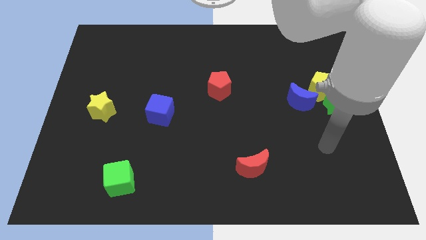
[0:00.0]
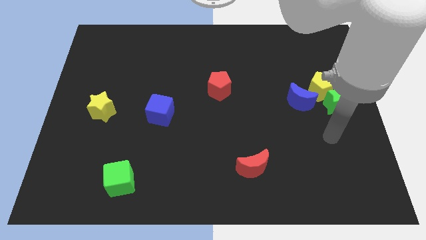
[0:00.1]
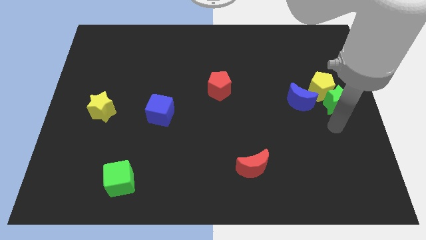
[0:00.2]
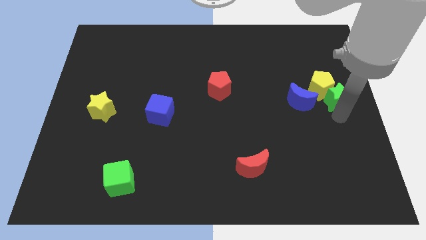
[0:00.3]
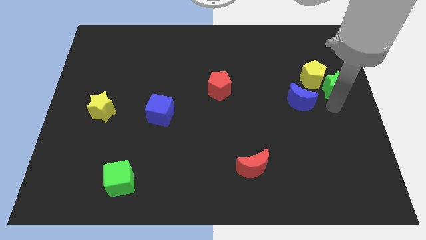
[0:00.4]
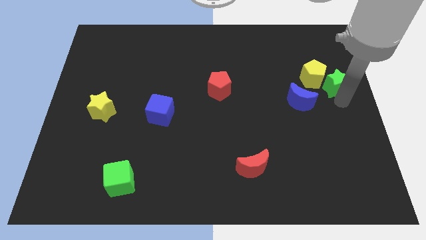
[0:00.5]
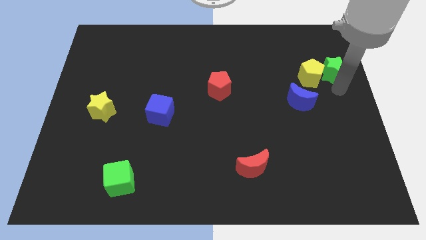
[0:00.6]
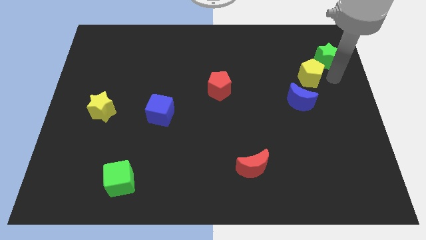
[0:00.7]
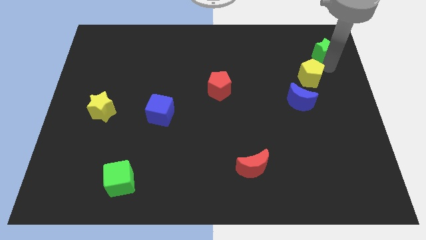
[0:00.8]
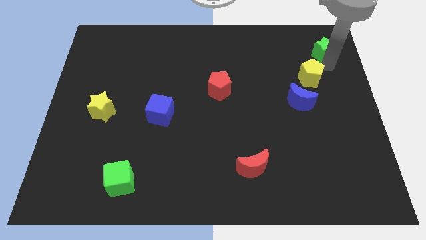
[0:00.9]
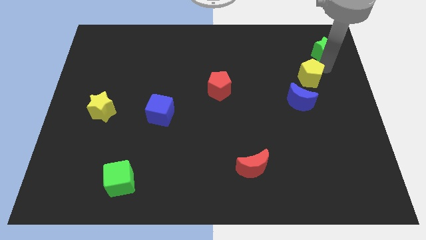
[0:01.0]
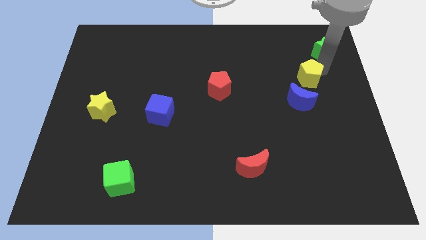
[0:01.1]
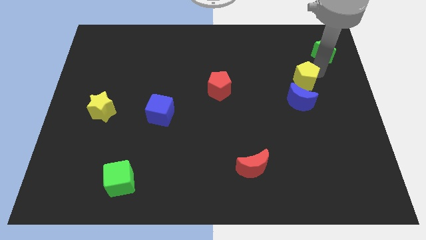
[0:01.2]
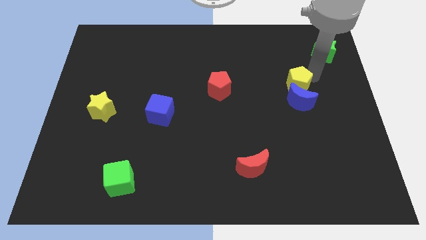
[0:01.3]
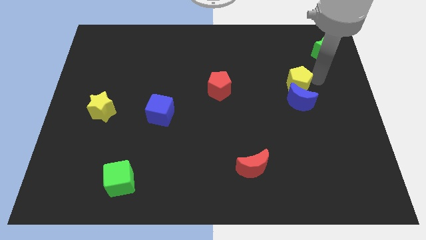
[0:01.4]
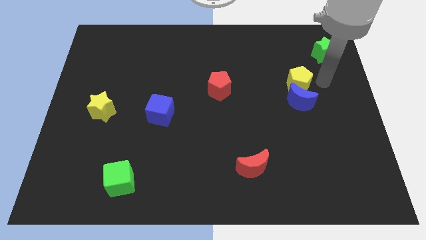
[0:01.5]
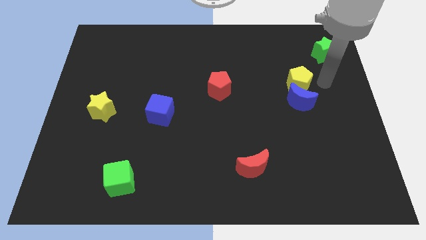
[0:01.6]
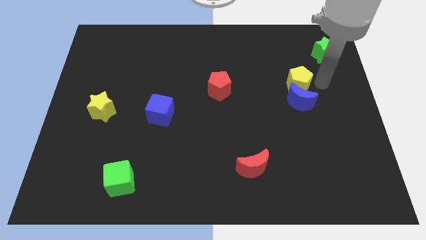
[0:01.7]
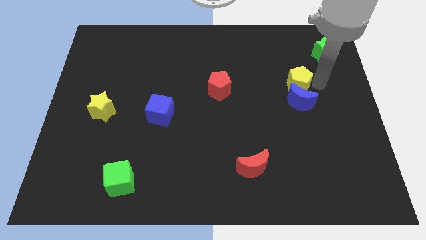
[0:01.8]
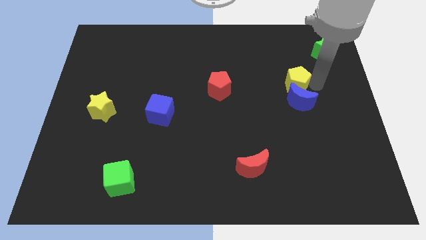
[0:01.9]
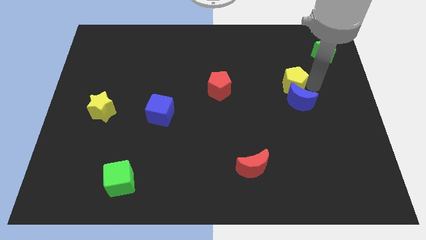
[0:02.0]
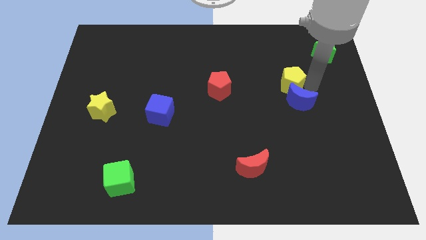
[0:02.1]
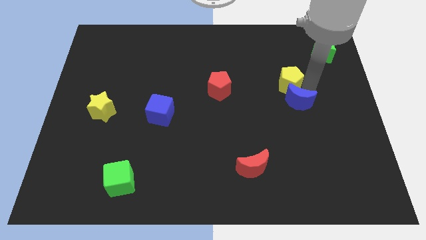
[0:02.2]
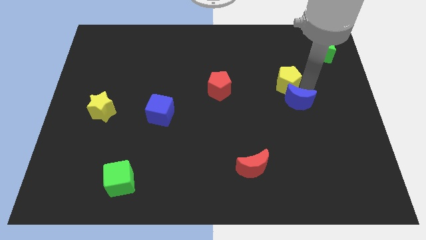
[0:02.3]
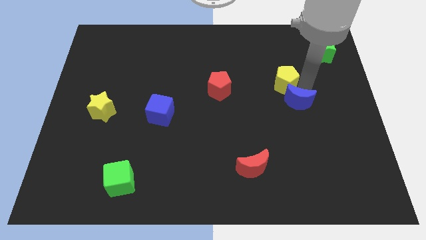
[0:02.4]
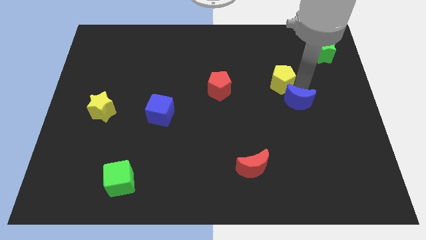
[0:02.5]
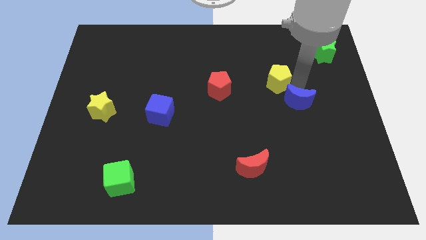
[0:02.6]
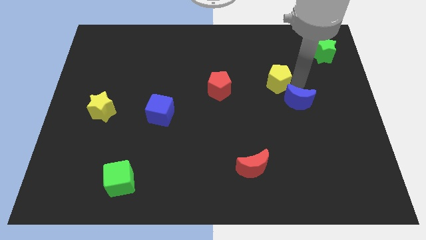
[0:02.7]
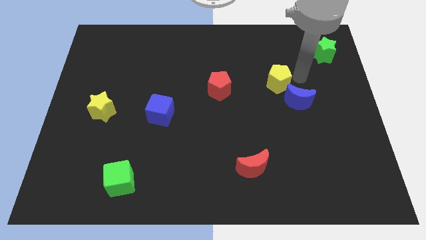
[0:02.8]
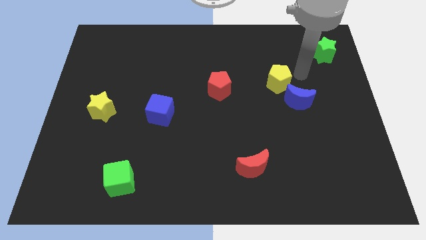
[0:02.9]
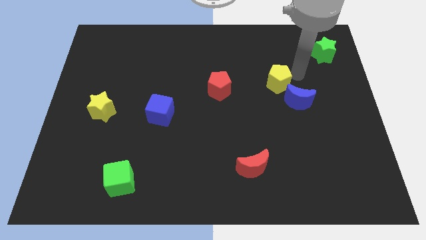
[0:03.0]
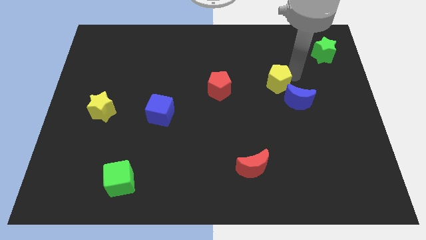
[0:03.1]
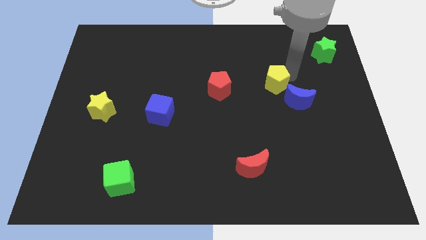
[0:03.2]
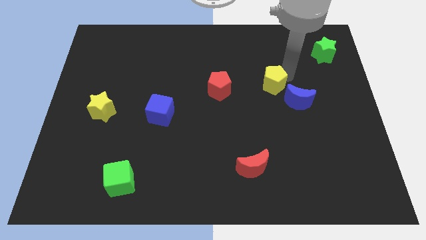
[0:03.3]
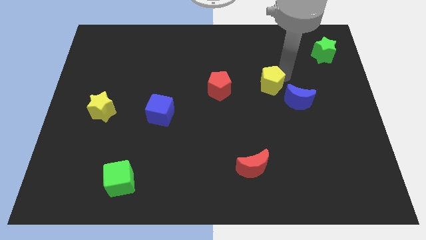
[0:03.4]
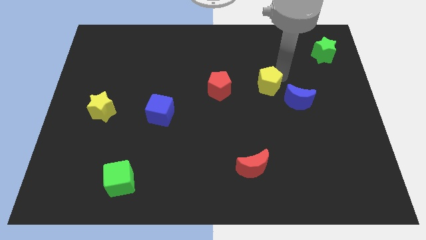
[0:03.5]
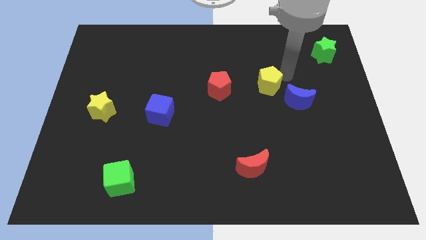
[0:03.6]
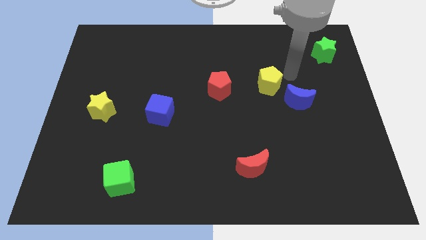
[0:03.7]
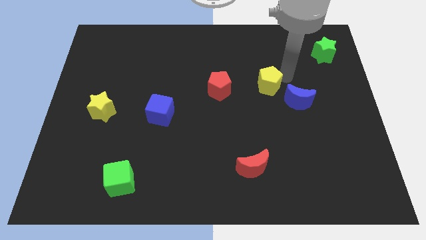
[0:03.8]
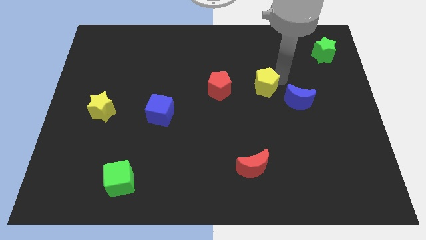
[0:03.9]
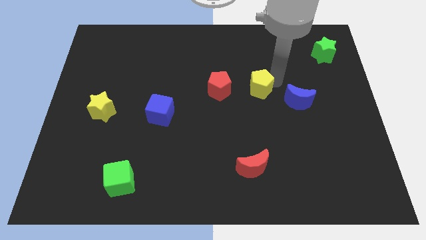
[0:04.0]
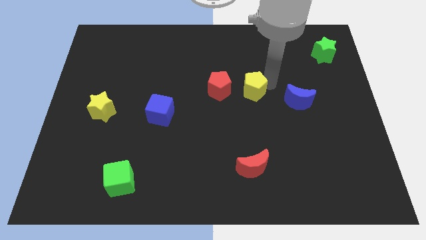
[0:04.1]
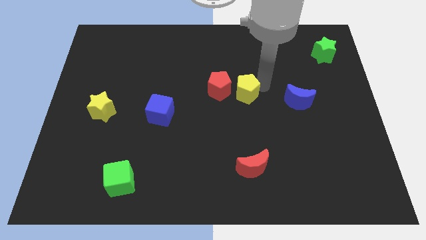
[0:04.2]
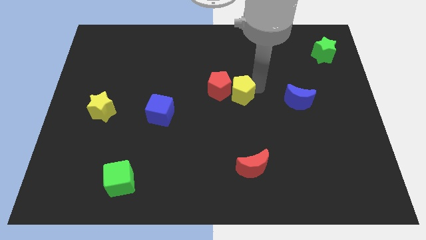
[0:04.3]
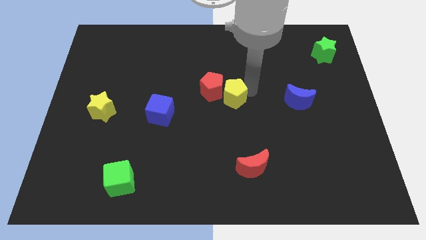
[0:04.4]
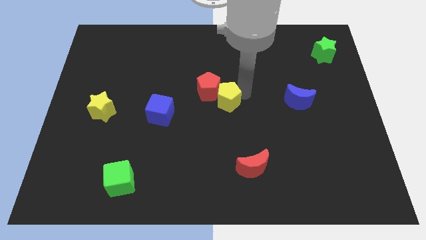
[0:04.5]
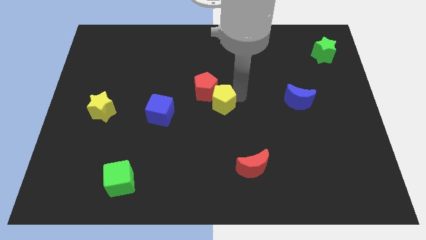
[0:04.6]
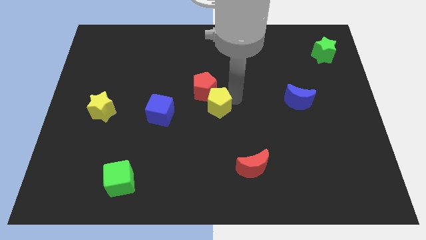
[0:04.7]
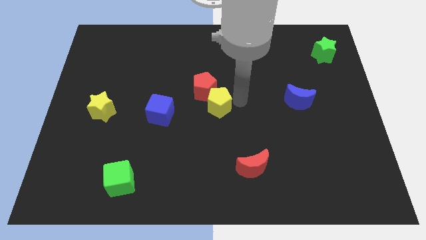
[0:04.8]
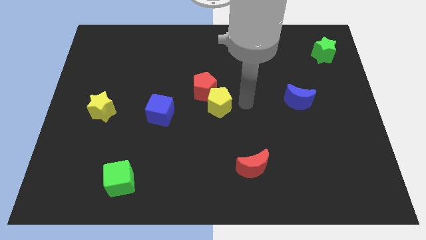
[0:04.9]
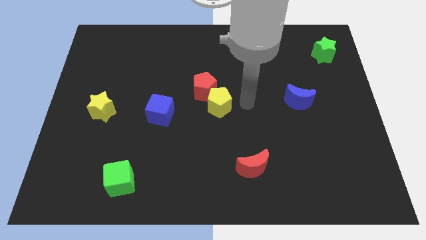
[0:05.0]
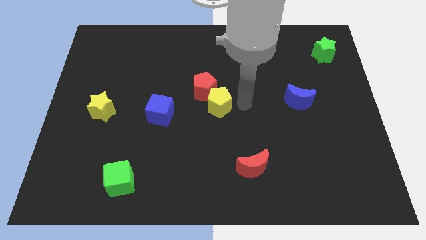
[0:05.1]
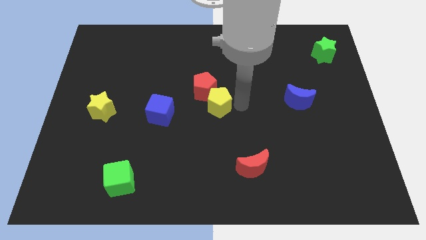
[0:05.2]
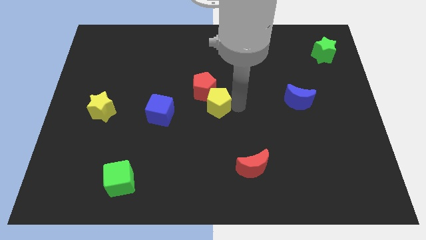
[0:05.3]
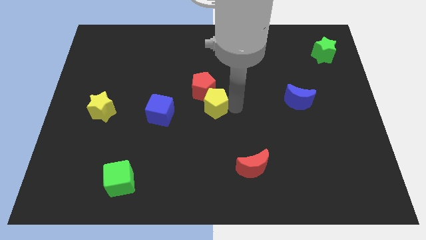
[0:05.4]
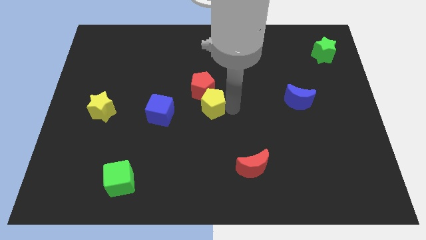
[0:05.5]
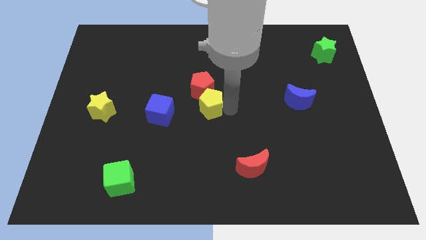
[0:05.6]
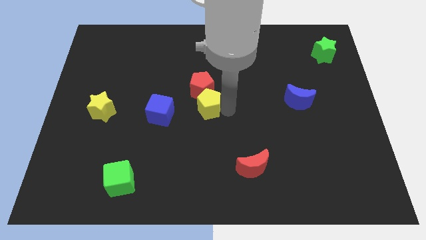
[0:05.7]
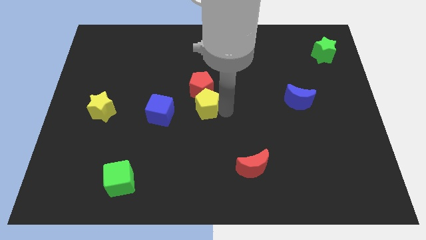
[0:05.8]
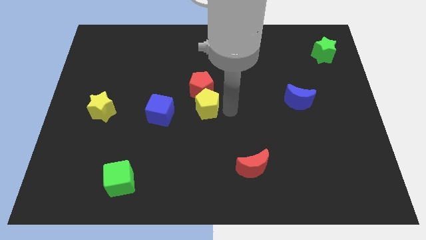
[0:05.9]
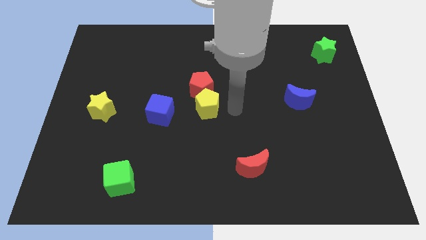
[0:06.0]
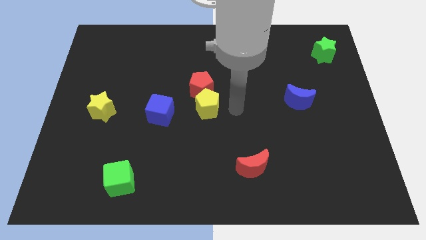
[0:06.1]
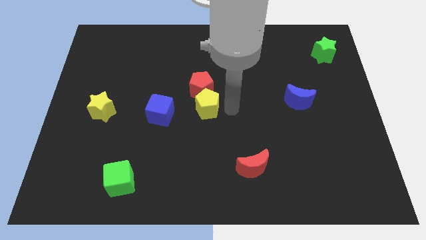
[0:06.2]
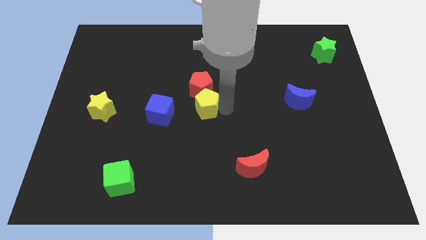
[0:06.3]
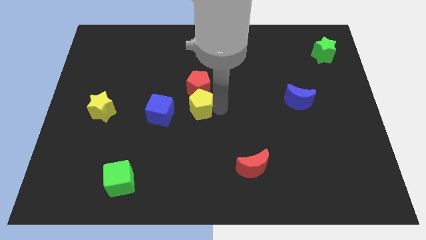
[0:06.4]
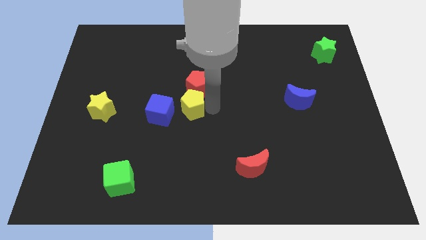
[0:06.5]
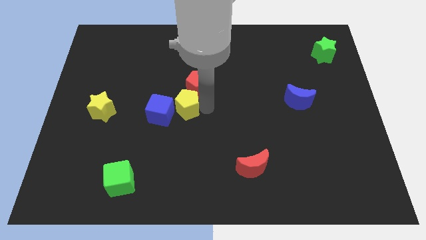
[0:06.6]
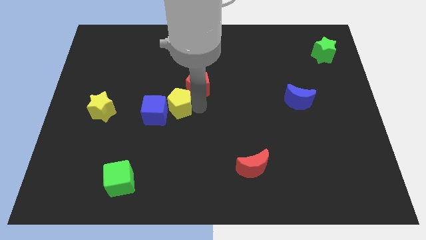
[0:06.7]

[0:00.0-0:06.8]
slide the yellow pentagon close to the blue cube

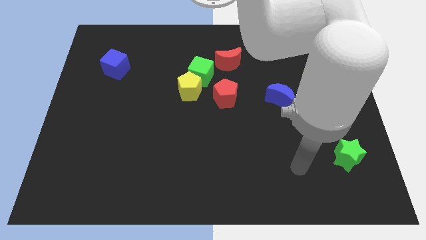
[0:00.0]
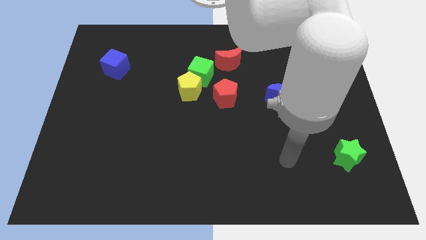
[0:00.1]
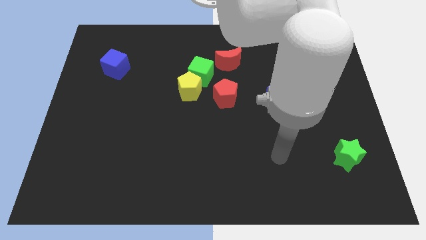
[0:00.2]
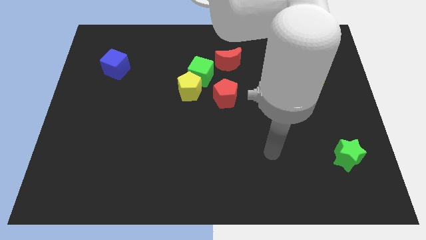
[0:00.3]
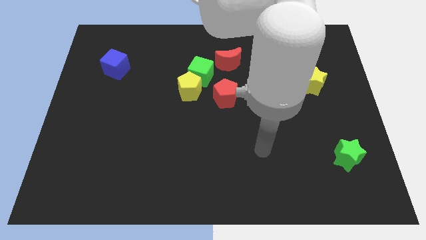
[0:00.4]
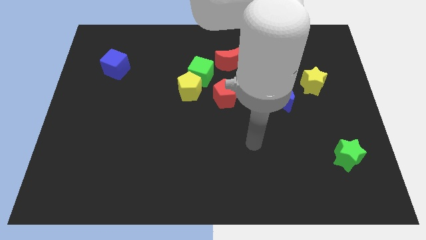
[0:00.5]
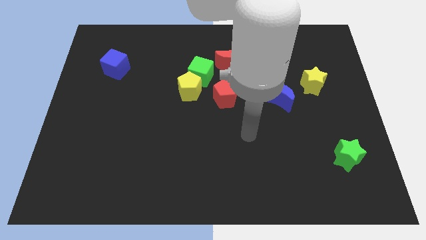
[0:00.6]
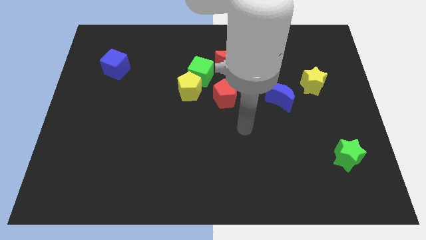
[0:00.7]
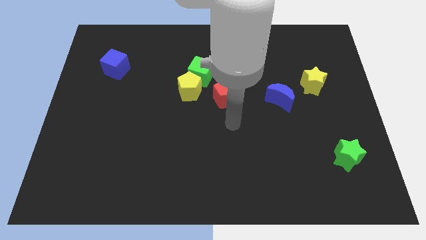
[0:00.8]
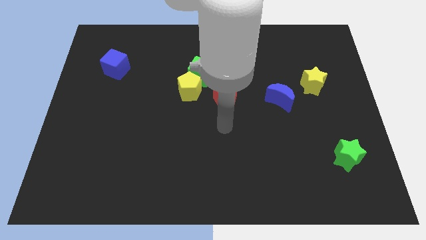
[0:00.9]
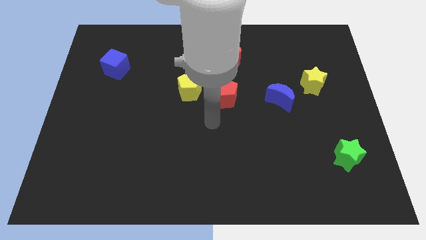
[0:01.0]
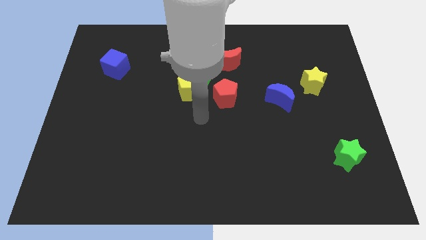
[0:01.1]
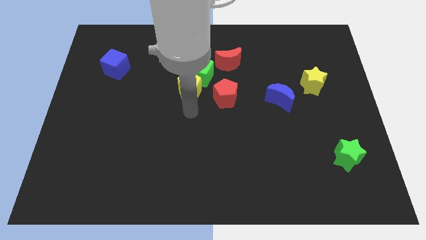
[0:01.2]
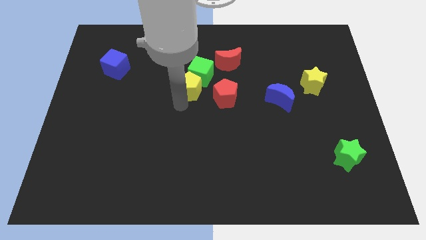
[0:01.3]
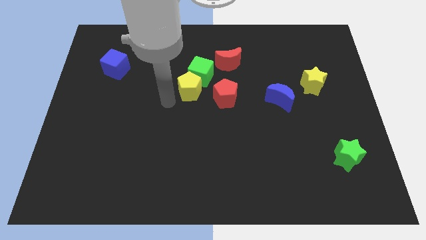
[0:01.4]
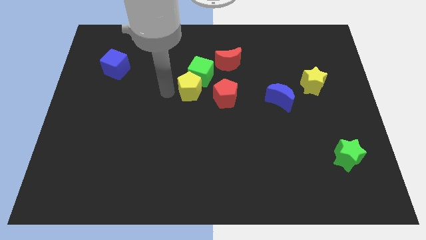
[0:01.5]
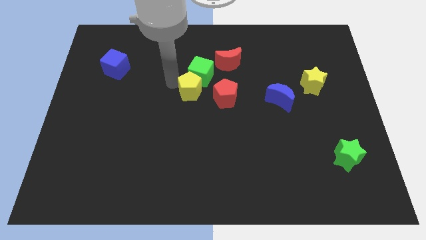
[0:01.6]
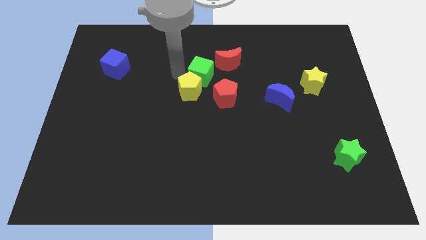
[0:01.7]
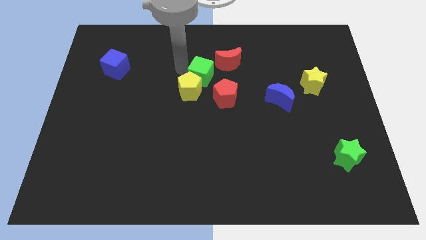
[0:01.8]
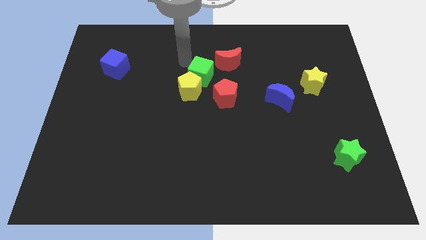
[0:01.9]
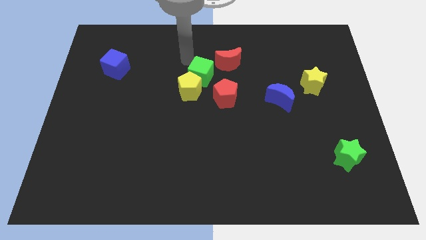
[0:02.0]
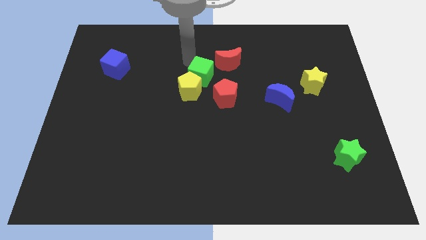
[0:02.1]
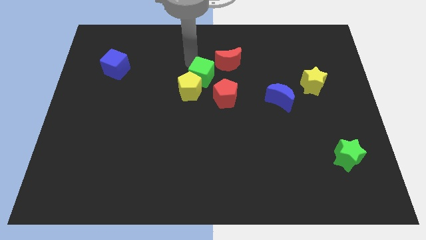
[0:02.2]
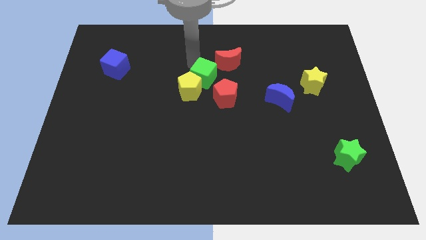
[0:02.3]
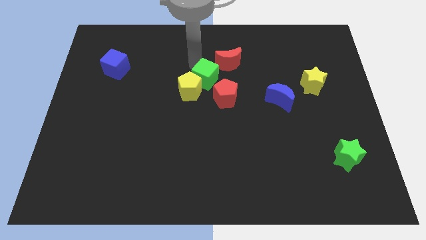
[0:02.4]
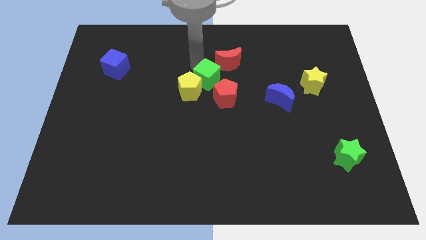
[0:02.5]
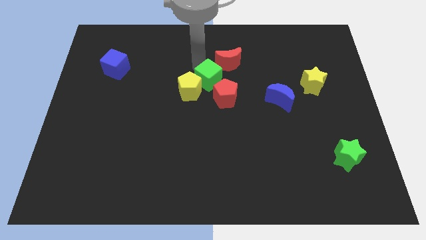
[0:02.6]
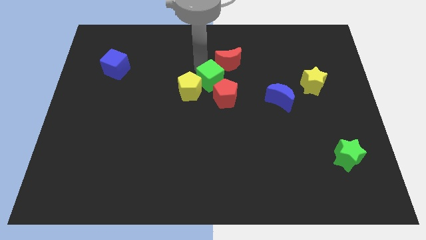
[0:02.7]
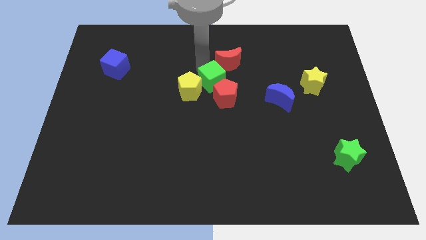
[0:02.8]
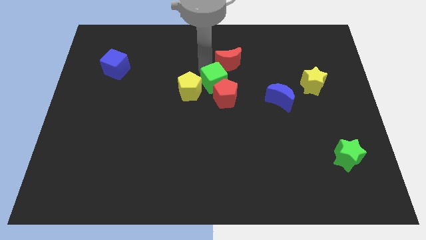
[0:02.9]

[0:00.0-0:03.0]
put the green cube towards the red pentagon
